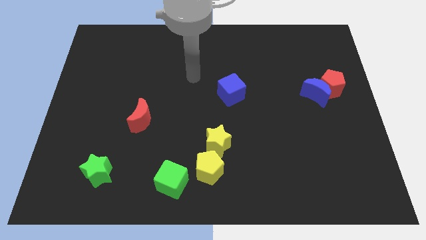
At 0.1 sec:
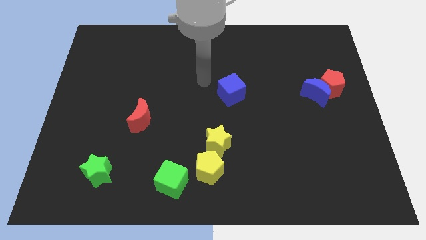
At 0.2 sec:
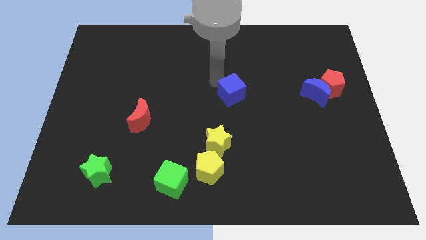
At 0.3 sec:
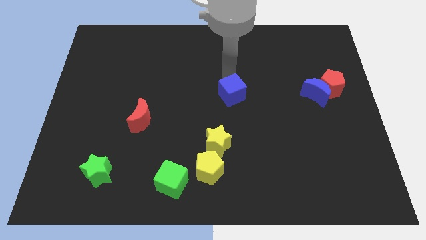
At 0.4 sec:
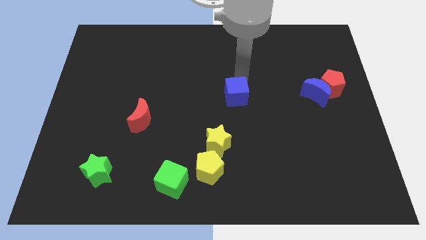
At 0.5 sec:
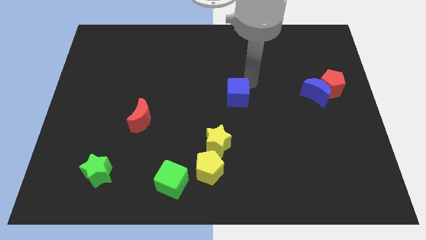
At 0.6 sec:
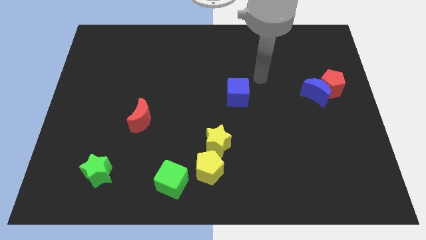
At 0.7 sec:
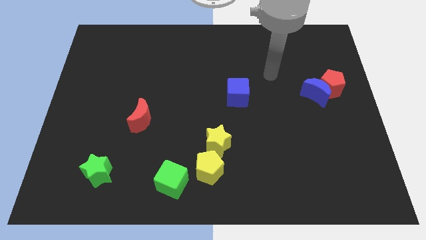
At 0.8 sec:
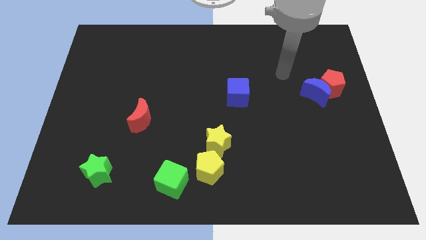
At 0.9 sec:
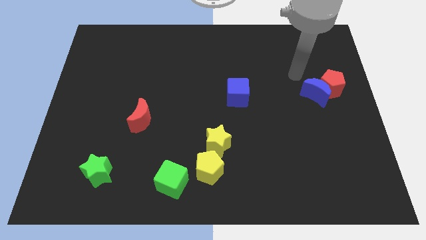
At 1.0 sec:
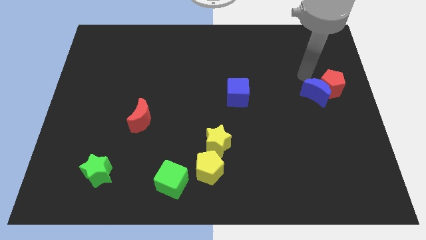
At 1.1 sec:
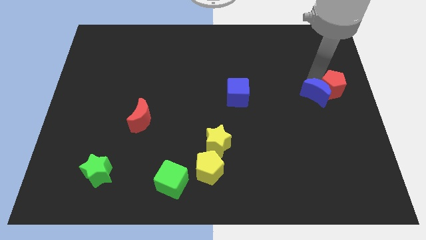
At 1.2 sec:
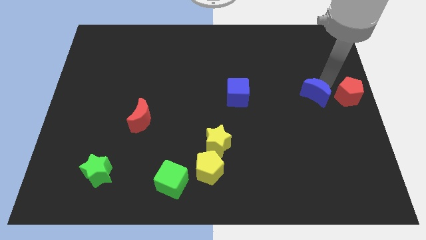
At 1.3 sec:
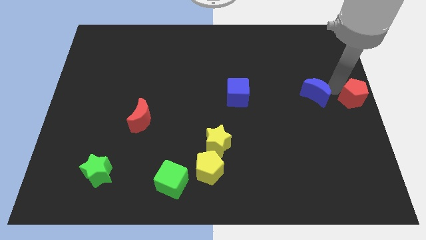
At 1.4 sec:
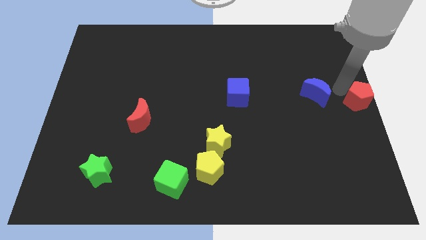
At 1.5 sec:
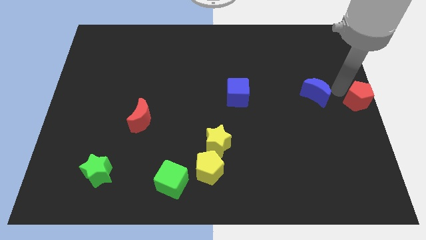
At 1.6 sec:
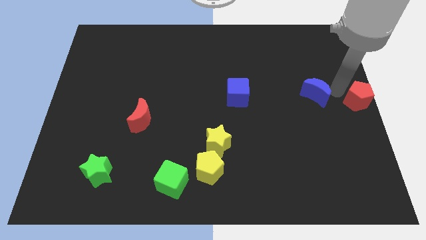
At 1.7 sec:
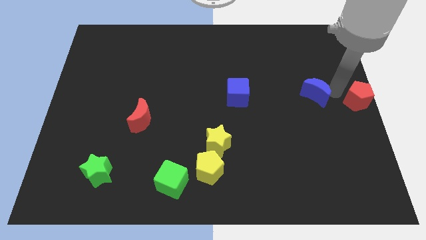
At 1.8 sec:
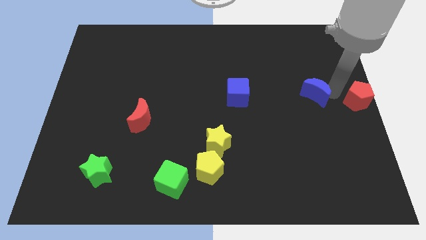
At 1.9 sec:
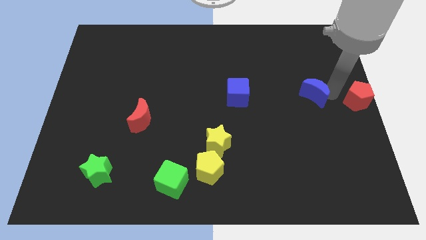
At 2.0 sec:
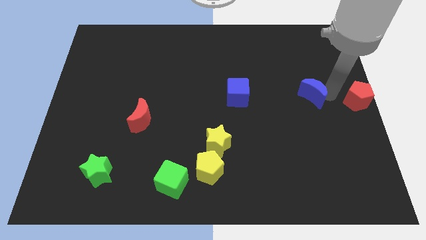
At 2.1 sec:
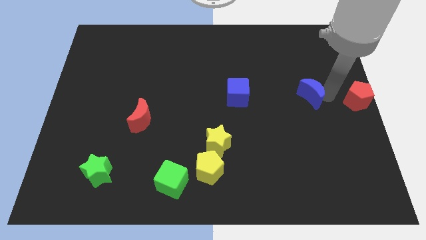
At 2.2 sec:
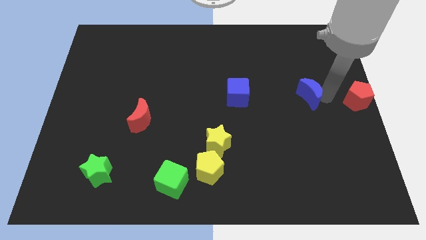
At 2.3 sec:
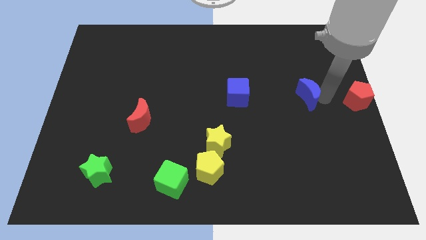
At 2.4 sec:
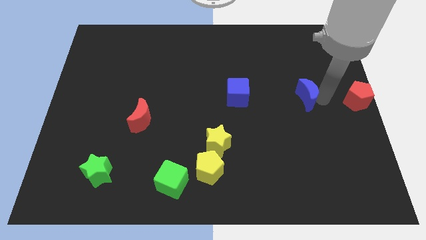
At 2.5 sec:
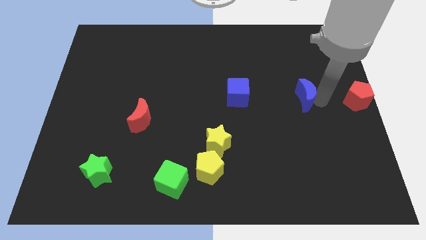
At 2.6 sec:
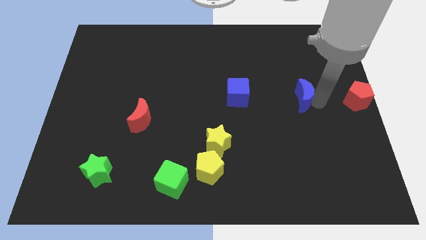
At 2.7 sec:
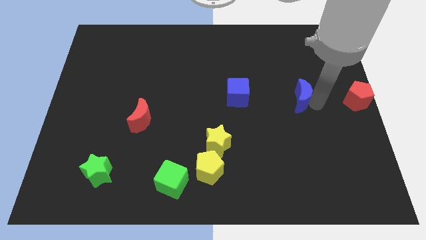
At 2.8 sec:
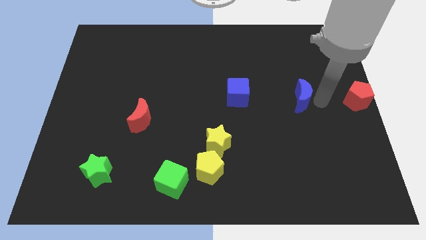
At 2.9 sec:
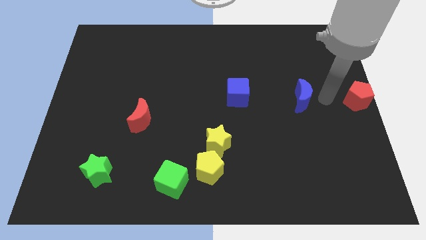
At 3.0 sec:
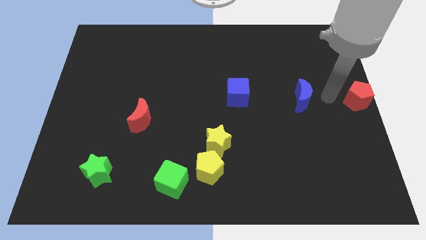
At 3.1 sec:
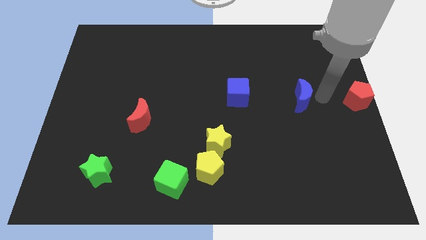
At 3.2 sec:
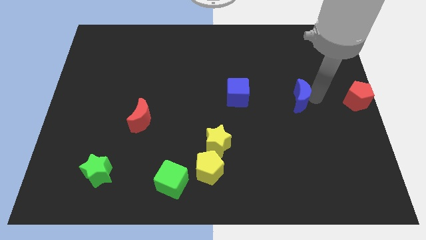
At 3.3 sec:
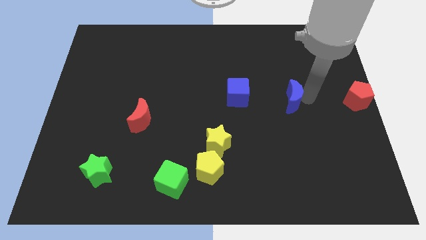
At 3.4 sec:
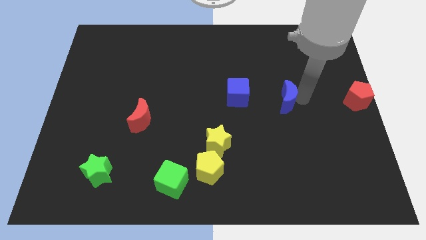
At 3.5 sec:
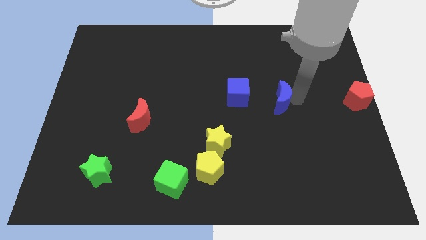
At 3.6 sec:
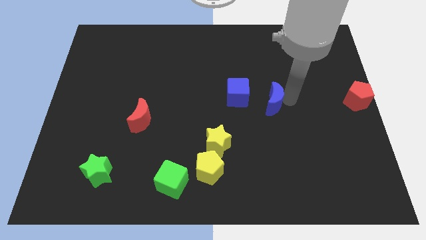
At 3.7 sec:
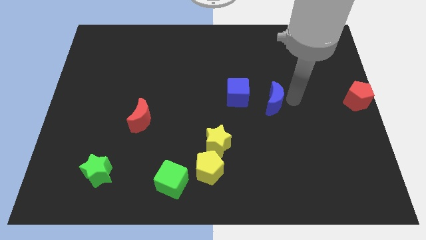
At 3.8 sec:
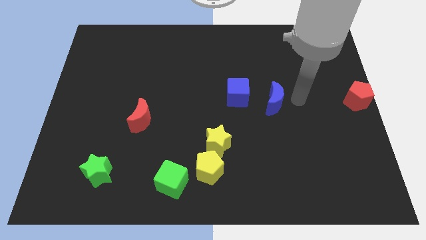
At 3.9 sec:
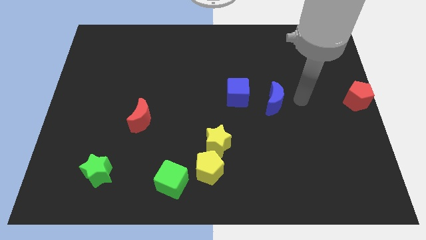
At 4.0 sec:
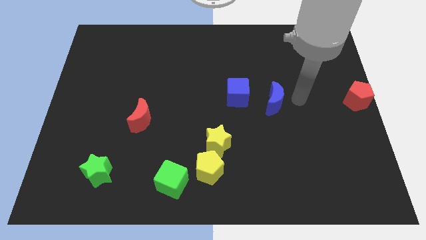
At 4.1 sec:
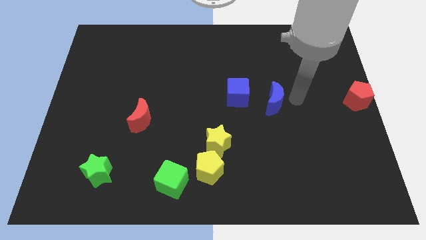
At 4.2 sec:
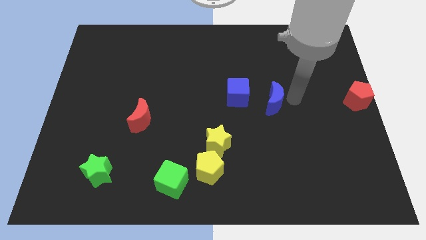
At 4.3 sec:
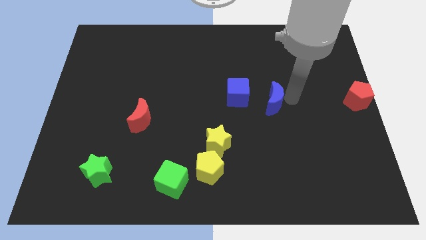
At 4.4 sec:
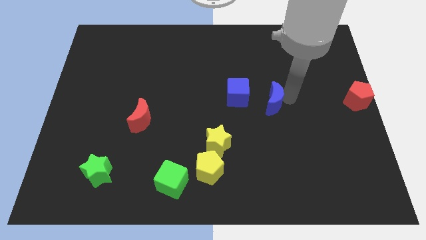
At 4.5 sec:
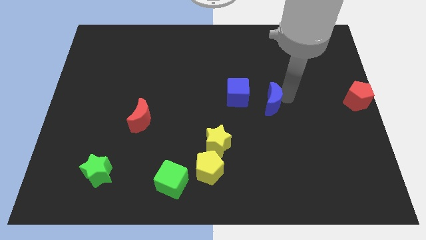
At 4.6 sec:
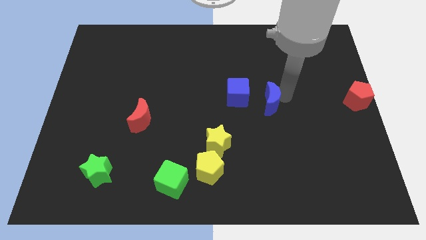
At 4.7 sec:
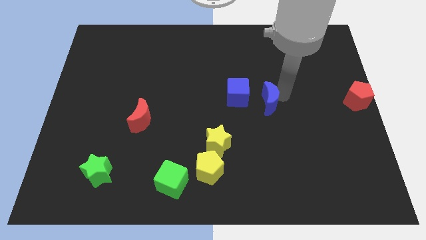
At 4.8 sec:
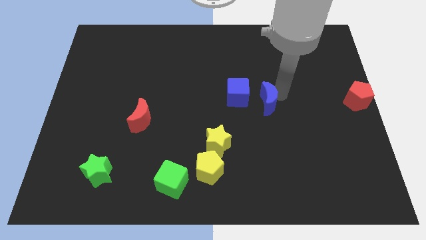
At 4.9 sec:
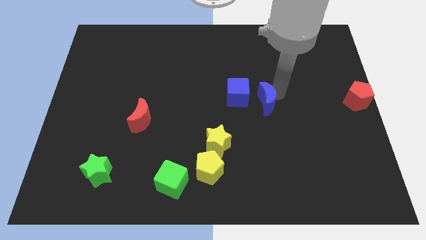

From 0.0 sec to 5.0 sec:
slide the blue moon to the middle of the board
